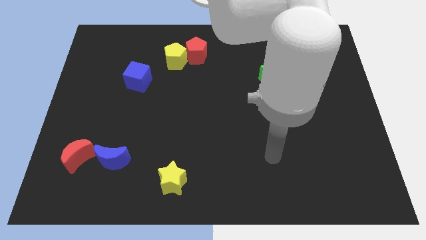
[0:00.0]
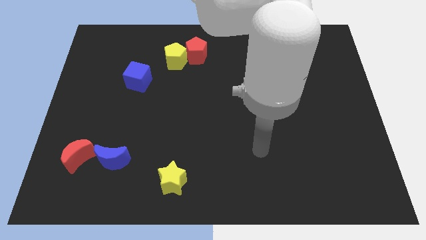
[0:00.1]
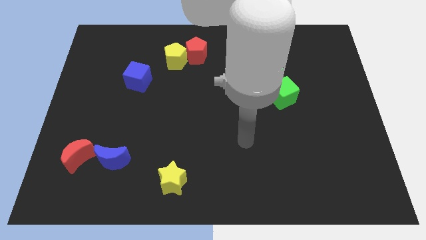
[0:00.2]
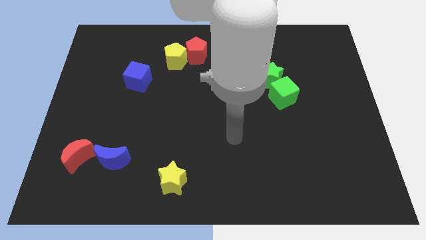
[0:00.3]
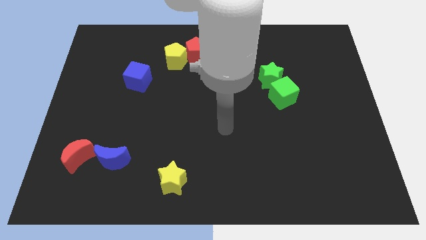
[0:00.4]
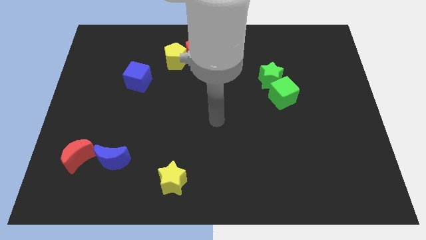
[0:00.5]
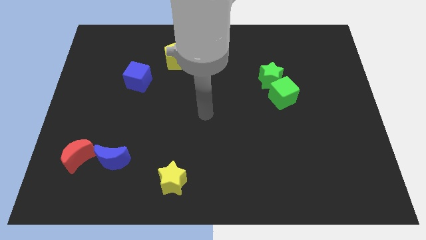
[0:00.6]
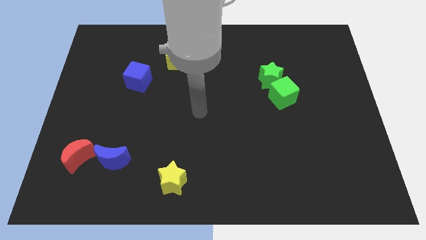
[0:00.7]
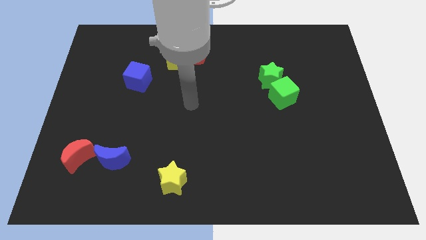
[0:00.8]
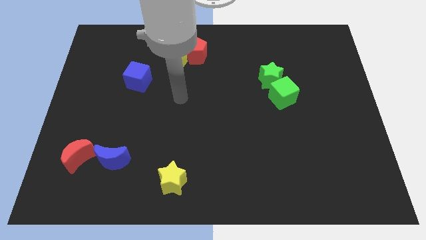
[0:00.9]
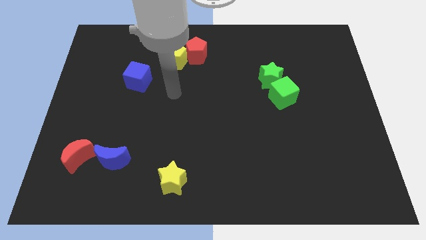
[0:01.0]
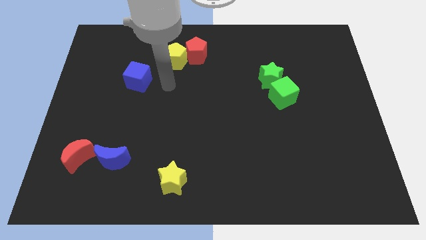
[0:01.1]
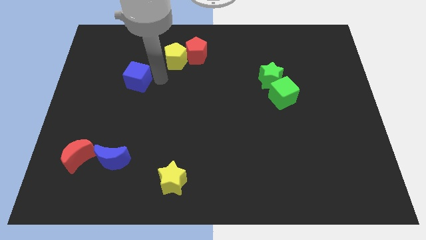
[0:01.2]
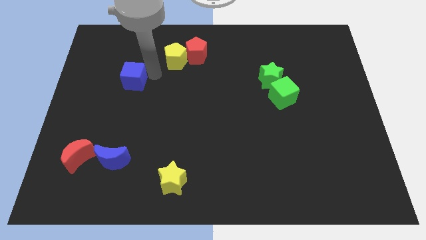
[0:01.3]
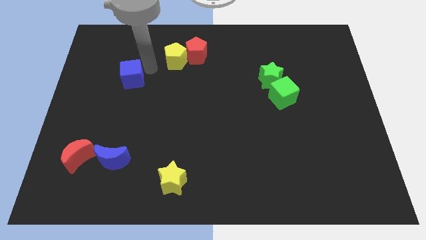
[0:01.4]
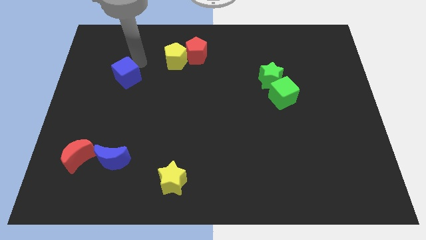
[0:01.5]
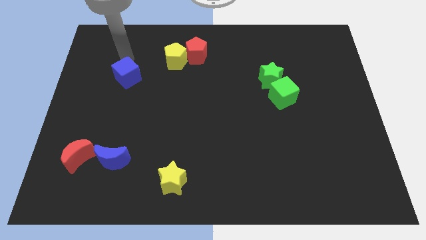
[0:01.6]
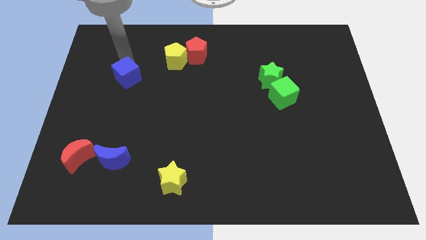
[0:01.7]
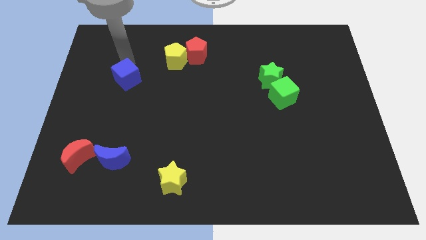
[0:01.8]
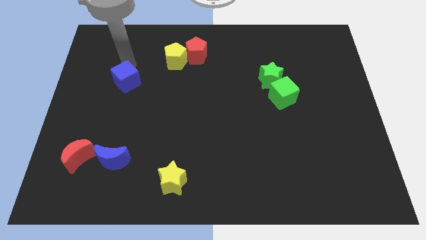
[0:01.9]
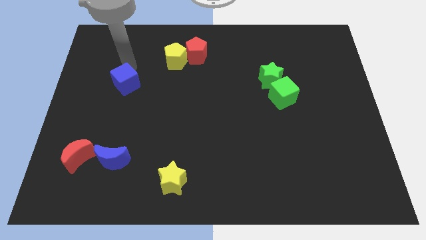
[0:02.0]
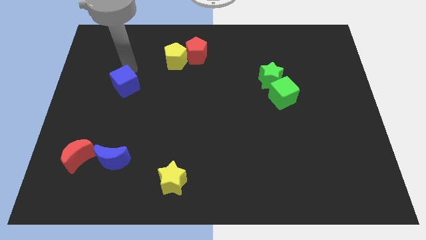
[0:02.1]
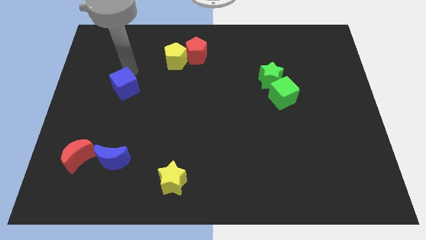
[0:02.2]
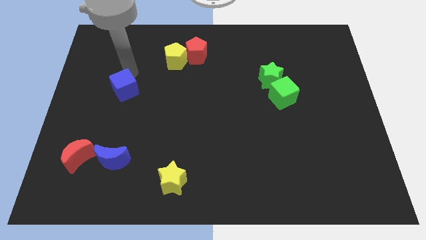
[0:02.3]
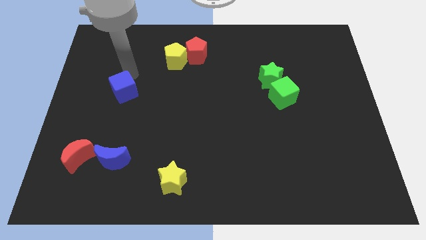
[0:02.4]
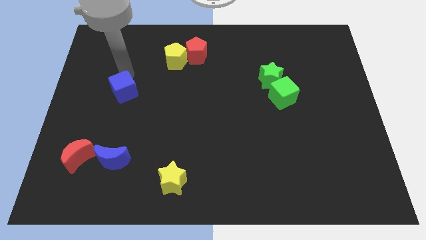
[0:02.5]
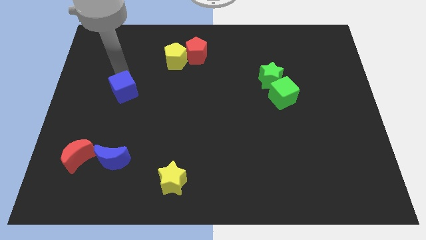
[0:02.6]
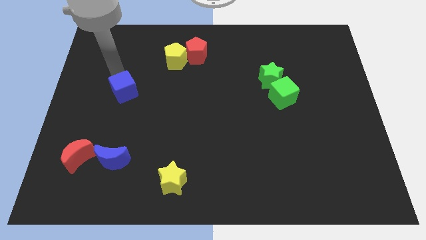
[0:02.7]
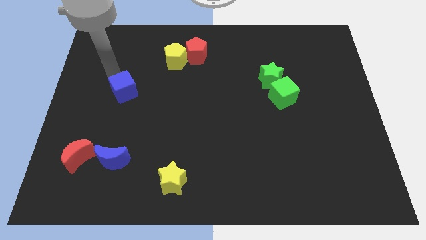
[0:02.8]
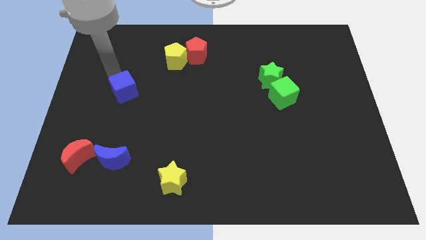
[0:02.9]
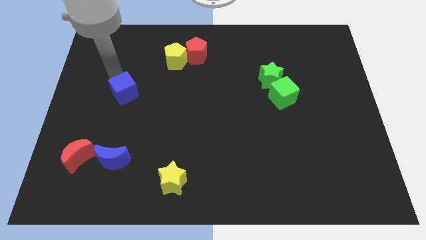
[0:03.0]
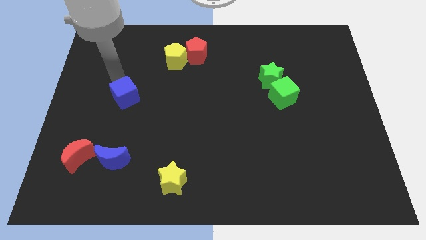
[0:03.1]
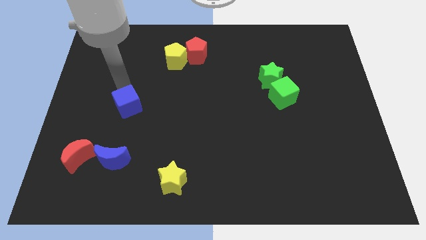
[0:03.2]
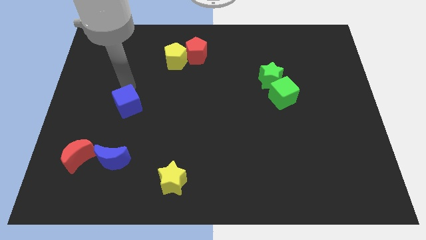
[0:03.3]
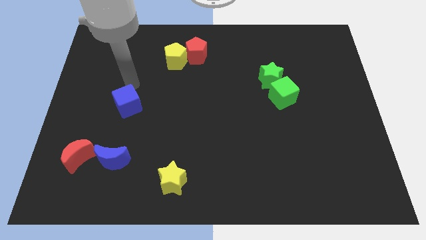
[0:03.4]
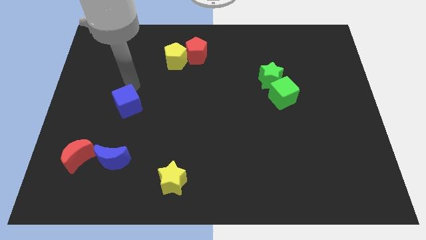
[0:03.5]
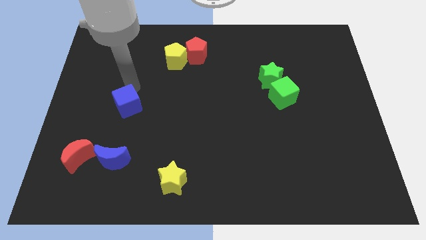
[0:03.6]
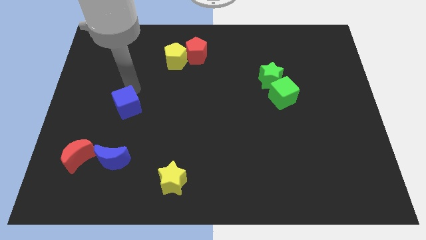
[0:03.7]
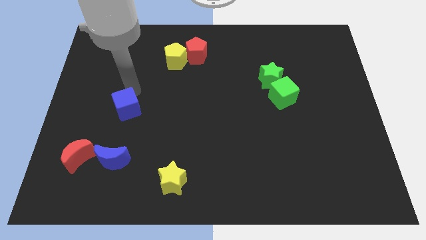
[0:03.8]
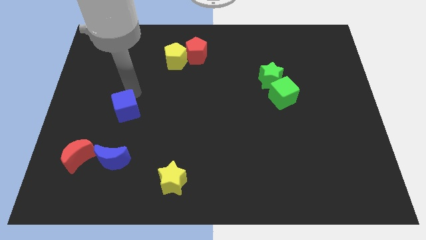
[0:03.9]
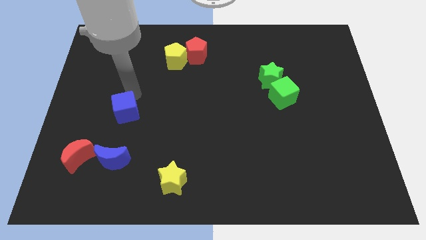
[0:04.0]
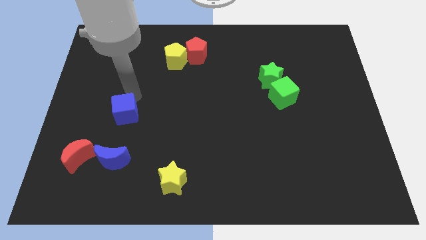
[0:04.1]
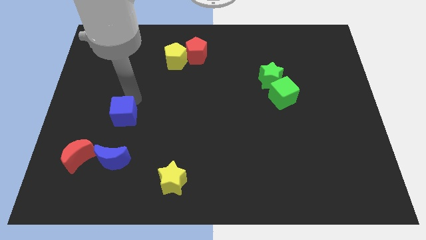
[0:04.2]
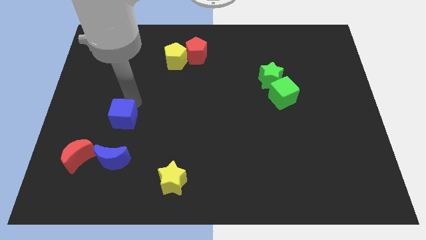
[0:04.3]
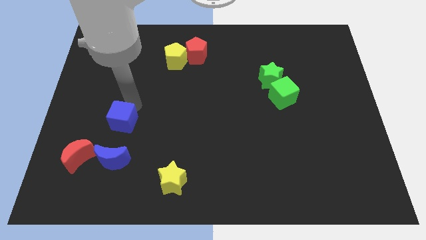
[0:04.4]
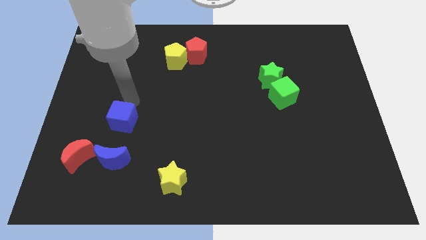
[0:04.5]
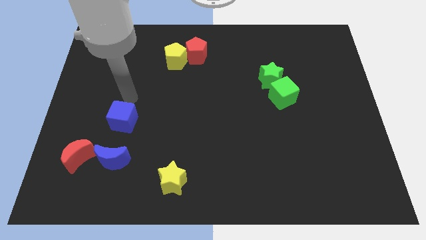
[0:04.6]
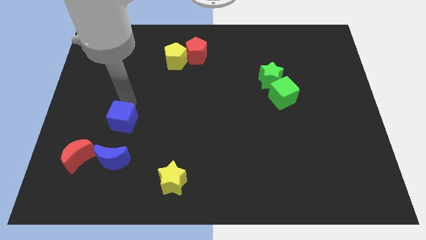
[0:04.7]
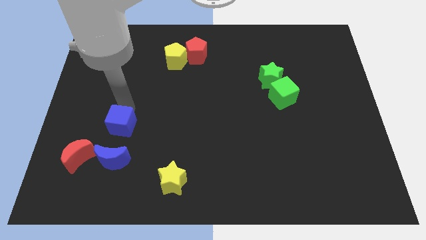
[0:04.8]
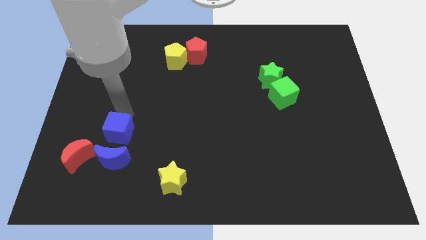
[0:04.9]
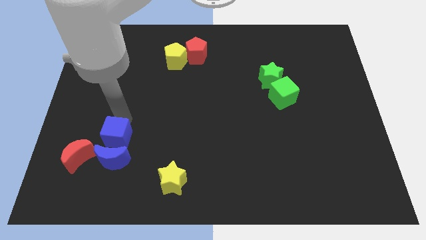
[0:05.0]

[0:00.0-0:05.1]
push the blue cube towards the blue moon

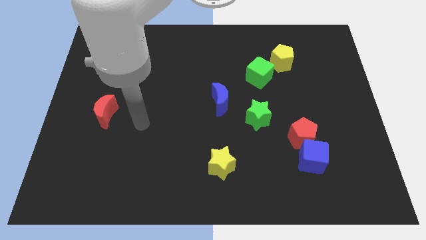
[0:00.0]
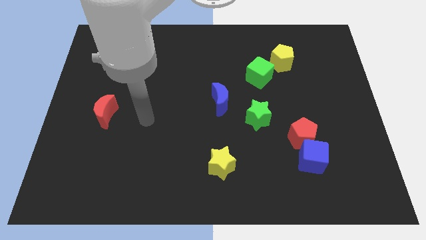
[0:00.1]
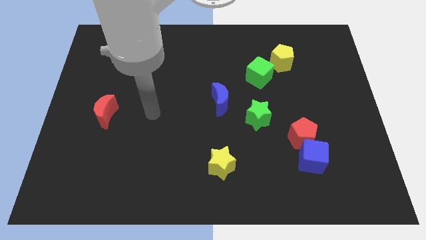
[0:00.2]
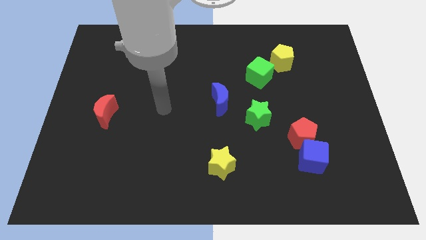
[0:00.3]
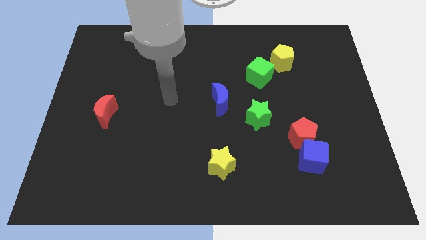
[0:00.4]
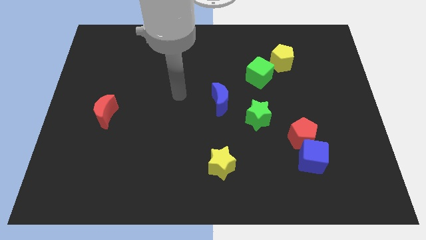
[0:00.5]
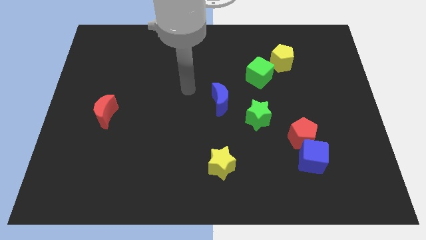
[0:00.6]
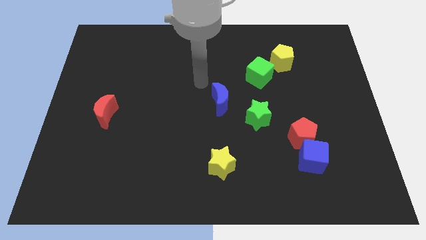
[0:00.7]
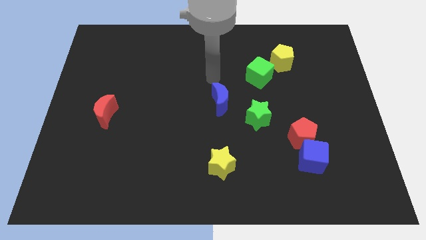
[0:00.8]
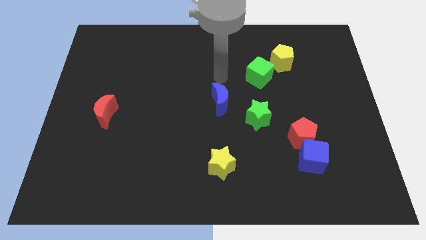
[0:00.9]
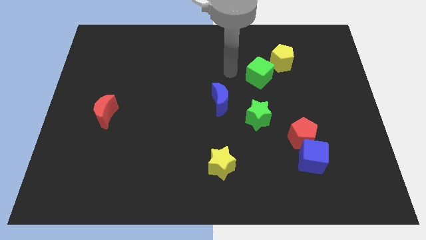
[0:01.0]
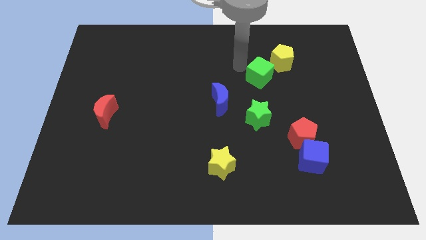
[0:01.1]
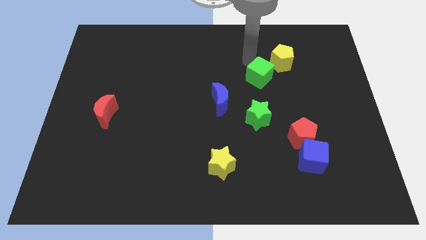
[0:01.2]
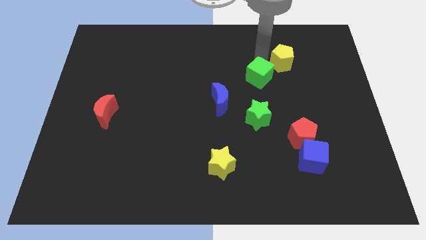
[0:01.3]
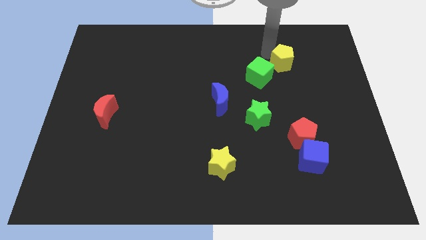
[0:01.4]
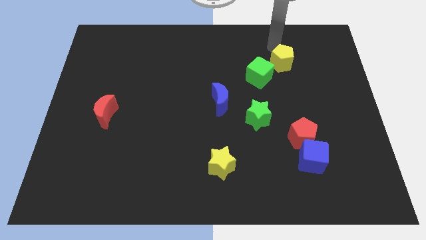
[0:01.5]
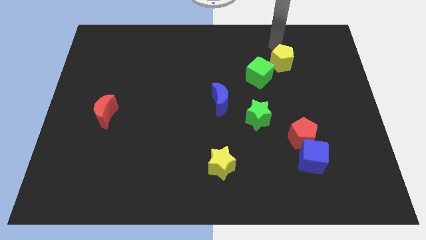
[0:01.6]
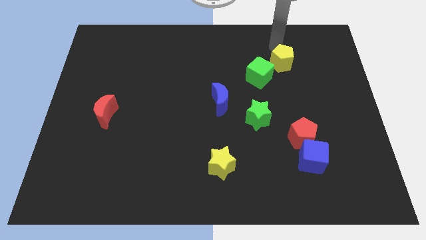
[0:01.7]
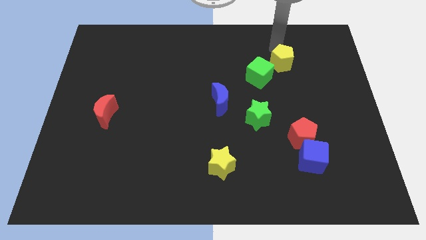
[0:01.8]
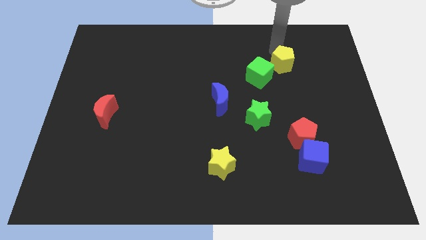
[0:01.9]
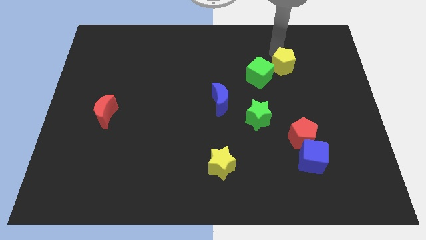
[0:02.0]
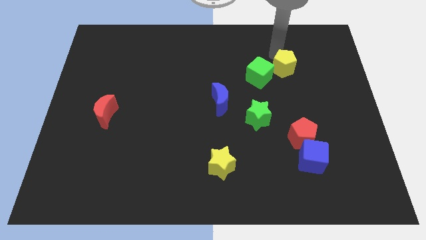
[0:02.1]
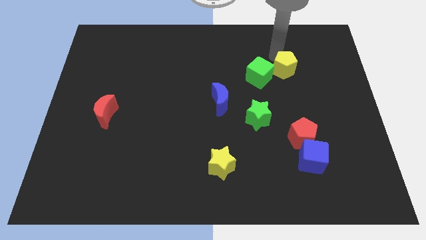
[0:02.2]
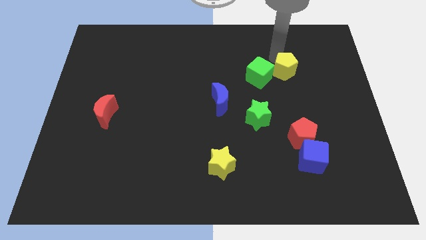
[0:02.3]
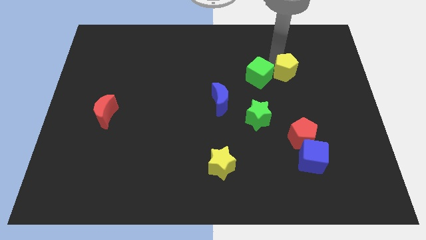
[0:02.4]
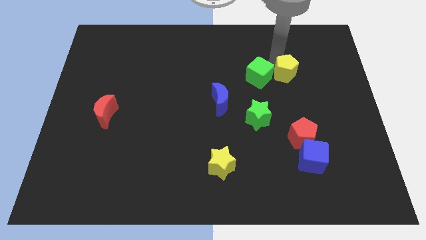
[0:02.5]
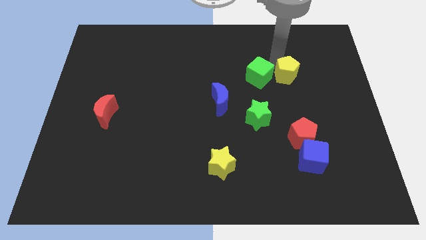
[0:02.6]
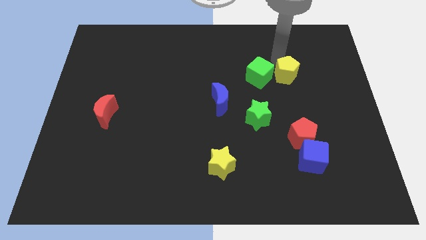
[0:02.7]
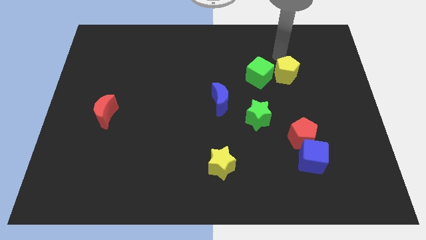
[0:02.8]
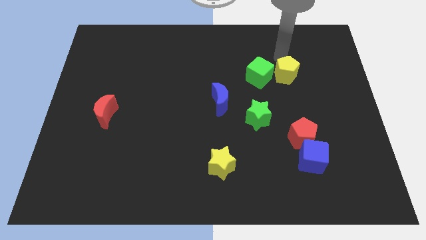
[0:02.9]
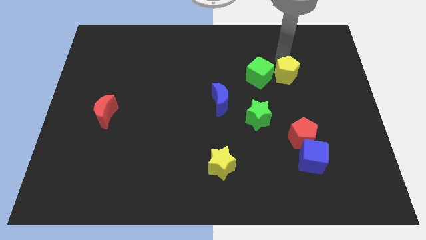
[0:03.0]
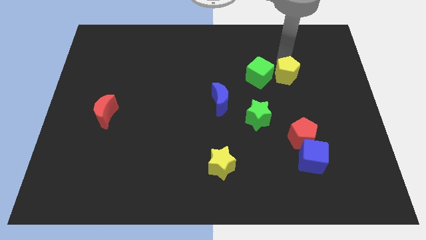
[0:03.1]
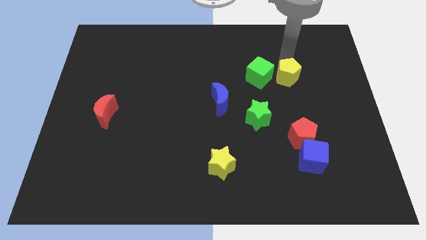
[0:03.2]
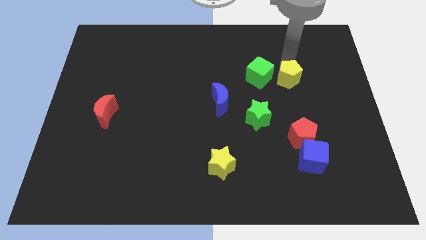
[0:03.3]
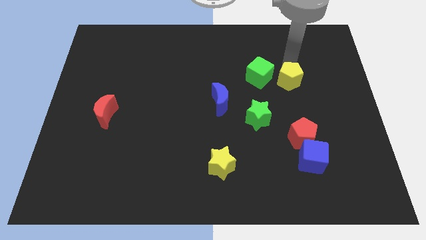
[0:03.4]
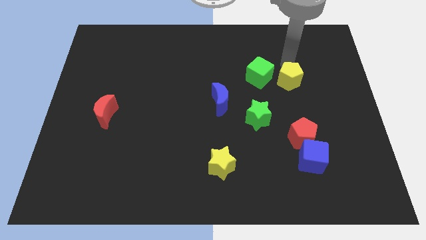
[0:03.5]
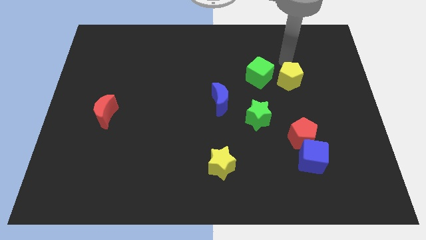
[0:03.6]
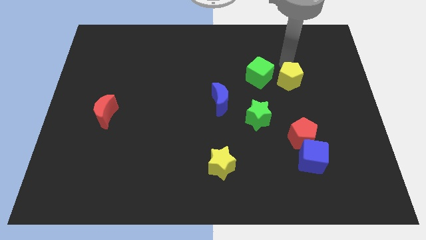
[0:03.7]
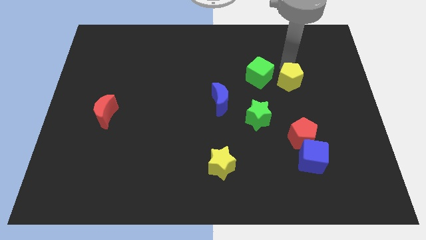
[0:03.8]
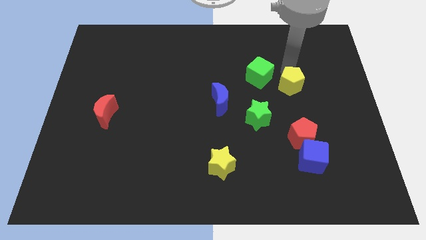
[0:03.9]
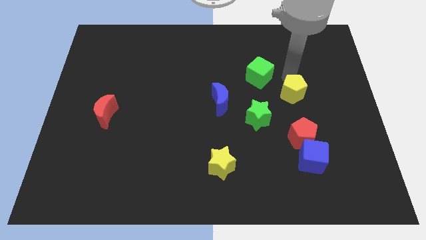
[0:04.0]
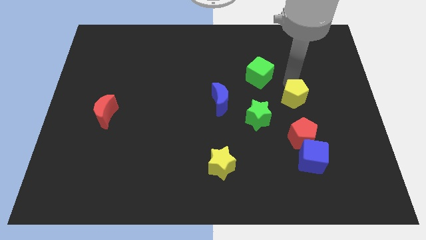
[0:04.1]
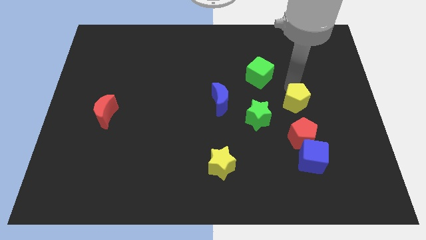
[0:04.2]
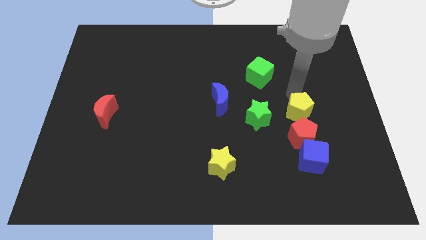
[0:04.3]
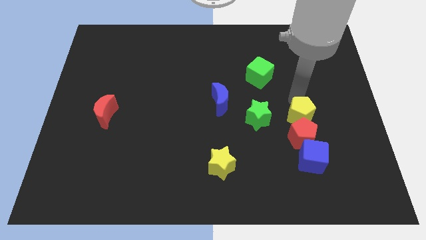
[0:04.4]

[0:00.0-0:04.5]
slide the yellow pentagon towards the red pentagon
